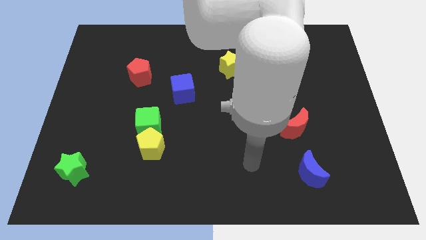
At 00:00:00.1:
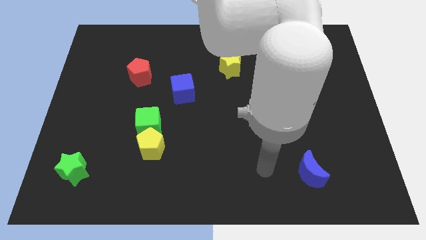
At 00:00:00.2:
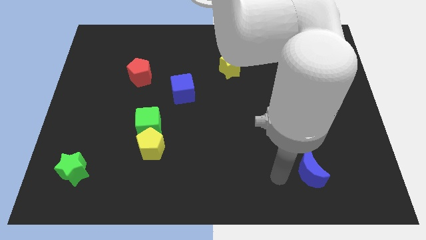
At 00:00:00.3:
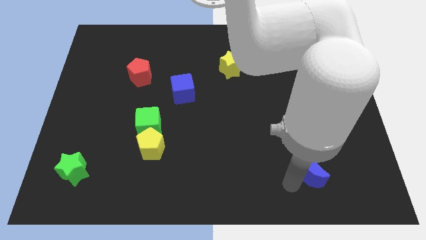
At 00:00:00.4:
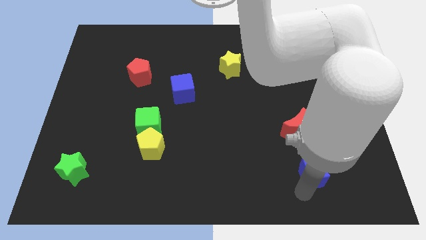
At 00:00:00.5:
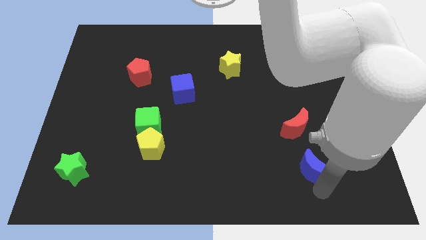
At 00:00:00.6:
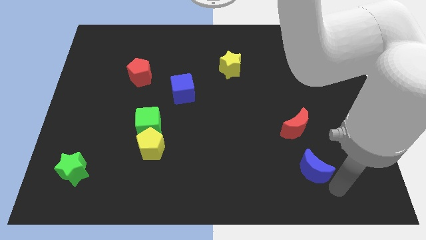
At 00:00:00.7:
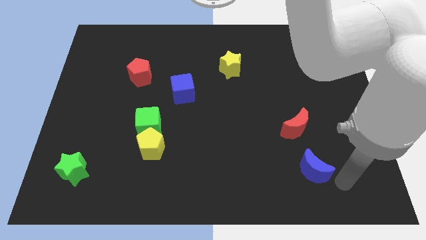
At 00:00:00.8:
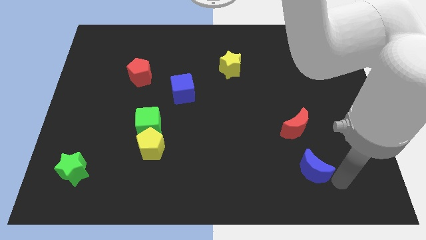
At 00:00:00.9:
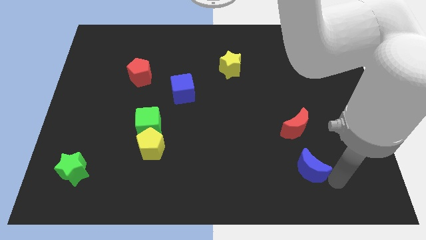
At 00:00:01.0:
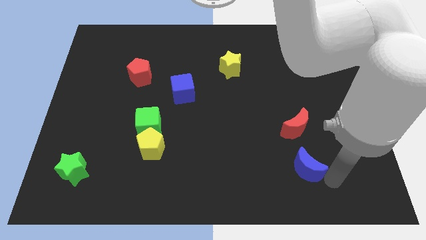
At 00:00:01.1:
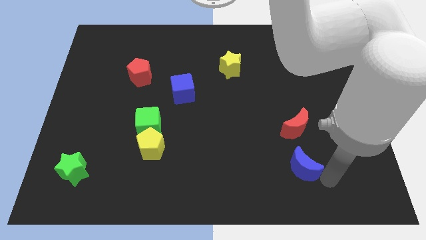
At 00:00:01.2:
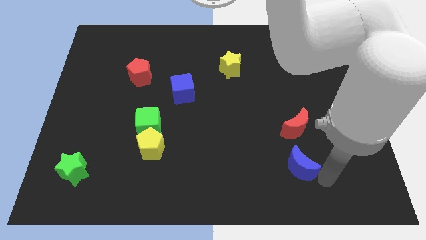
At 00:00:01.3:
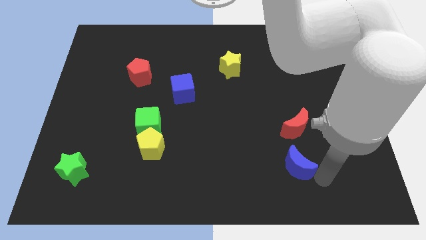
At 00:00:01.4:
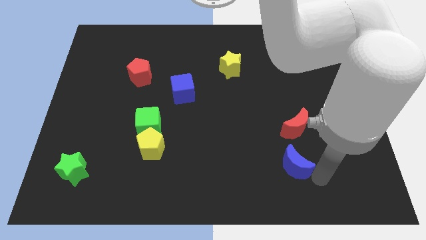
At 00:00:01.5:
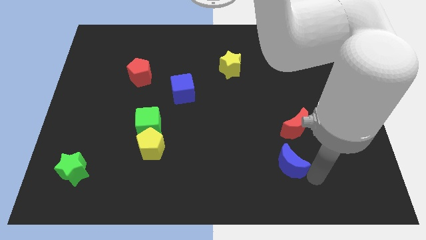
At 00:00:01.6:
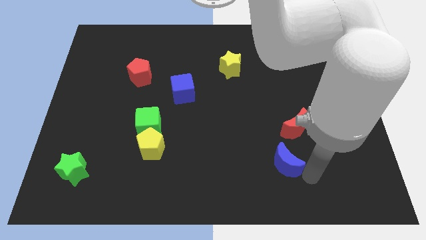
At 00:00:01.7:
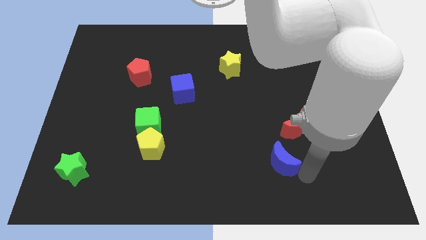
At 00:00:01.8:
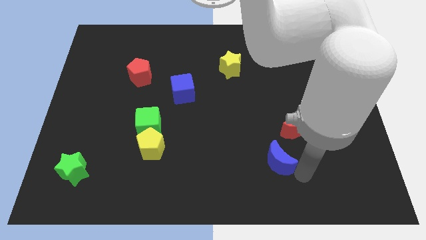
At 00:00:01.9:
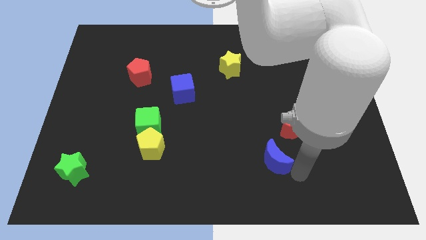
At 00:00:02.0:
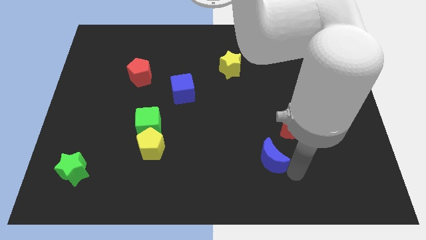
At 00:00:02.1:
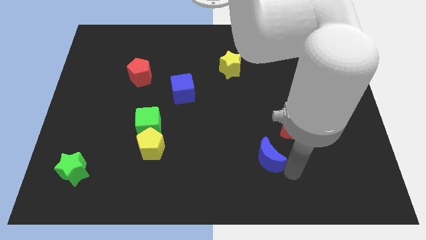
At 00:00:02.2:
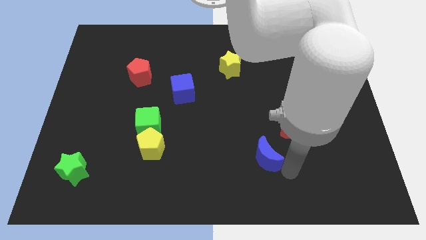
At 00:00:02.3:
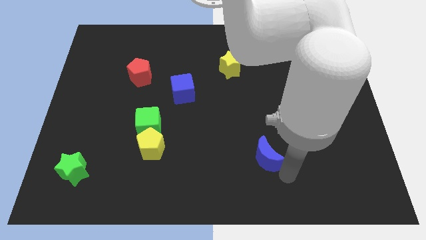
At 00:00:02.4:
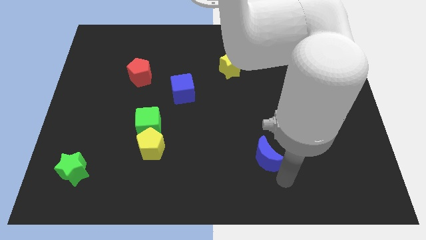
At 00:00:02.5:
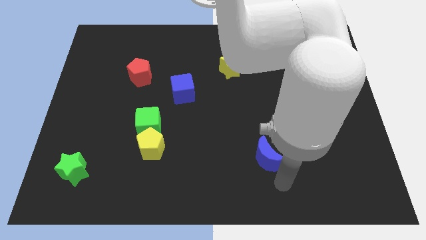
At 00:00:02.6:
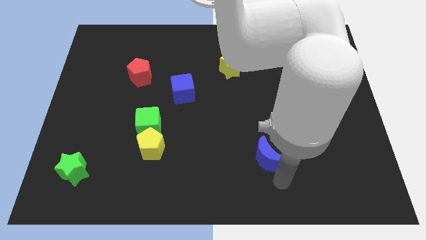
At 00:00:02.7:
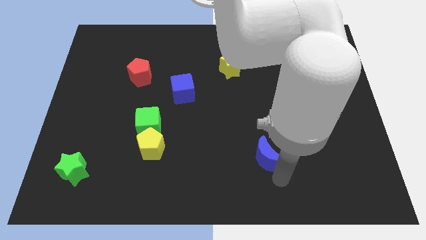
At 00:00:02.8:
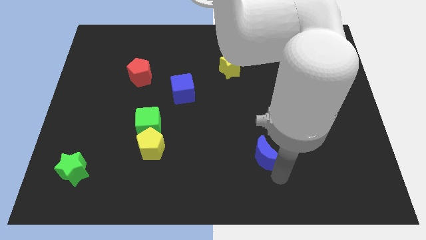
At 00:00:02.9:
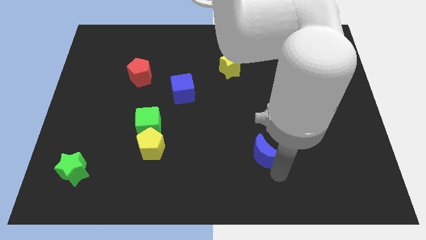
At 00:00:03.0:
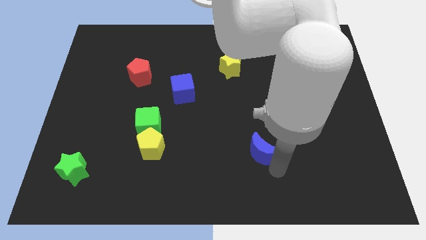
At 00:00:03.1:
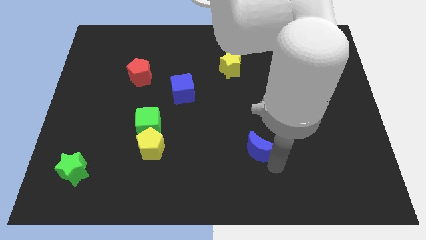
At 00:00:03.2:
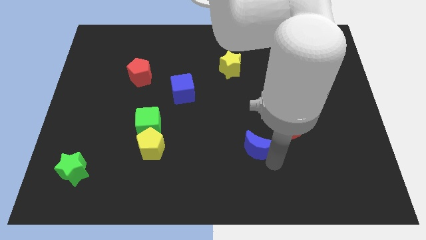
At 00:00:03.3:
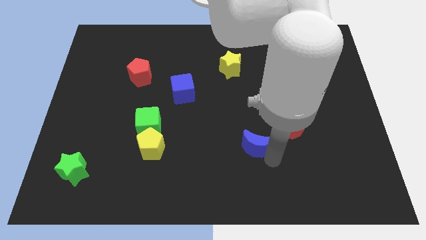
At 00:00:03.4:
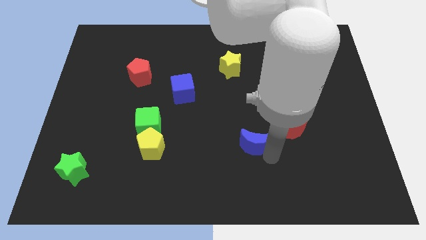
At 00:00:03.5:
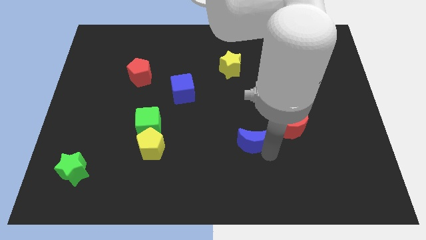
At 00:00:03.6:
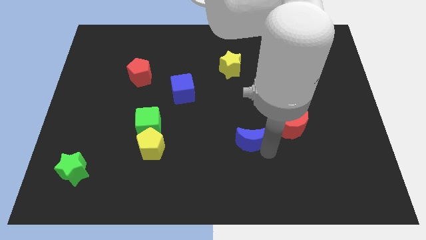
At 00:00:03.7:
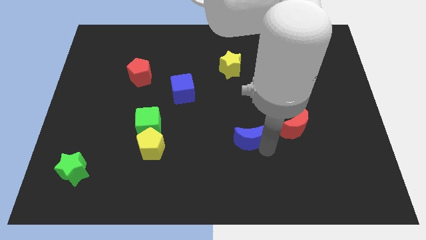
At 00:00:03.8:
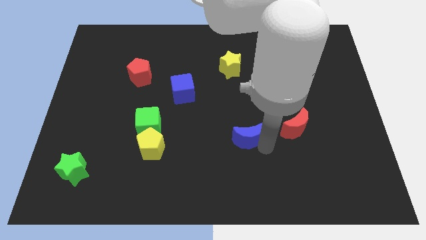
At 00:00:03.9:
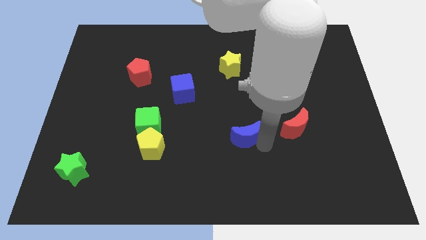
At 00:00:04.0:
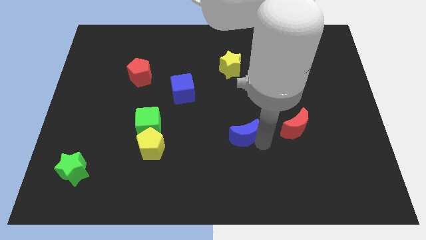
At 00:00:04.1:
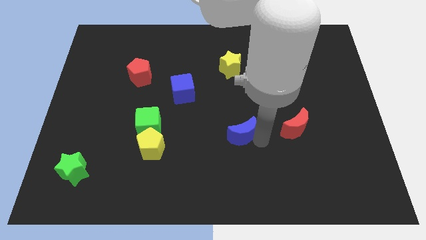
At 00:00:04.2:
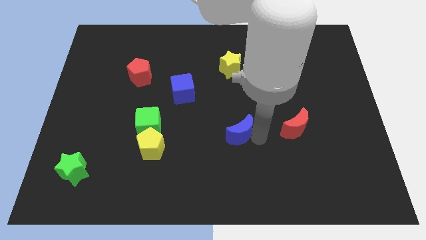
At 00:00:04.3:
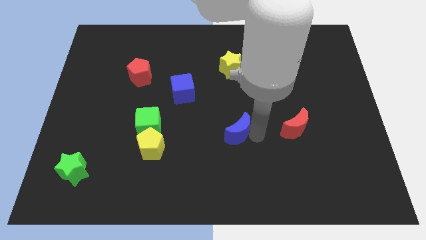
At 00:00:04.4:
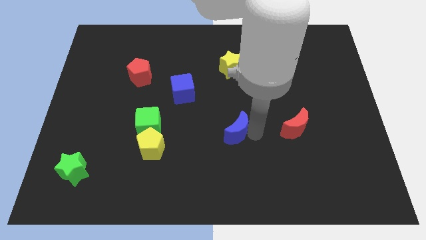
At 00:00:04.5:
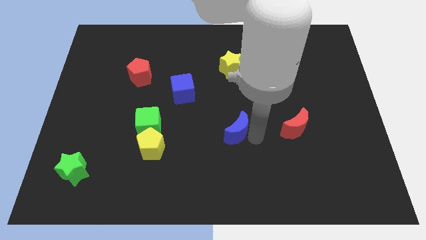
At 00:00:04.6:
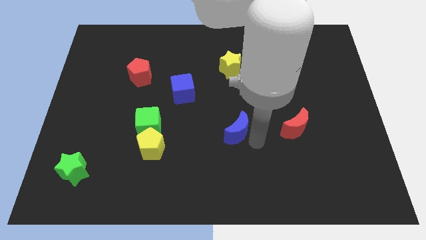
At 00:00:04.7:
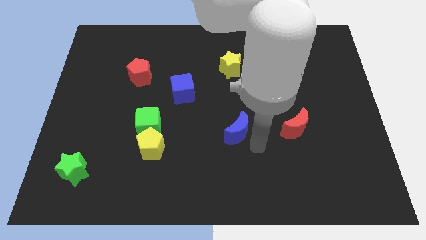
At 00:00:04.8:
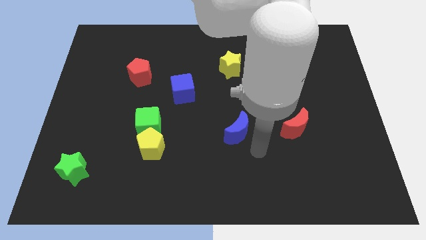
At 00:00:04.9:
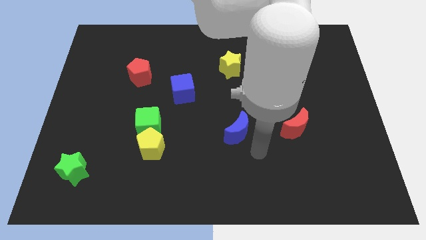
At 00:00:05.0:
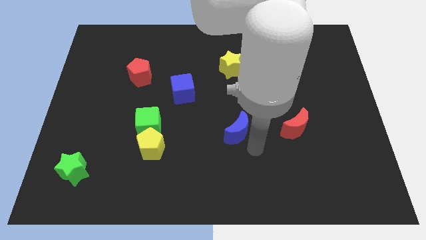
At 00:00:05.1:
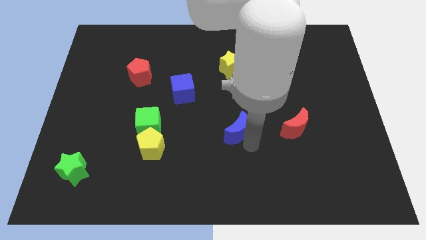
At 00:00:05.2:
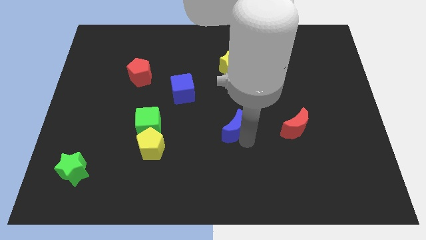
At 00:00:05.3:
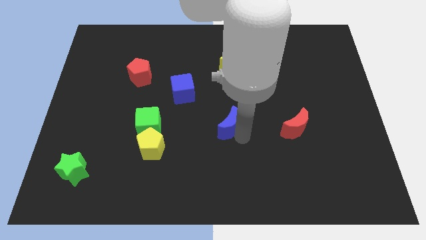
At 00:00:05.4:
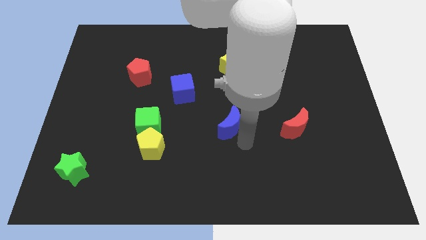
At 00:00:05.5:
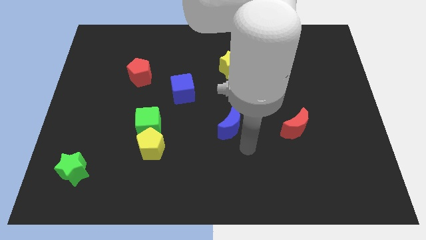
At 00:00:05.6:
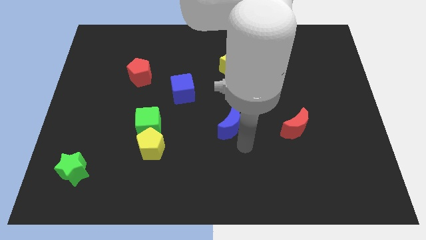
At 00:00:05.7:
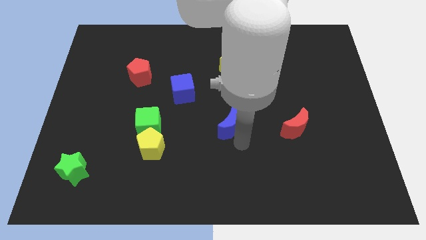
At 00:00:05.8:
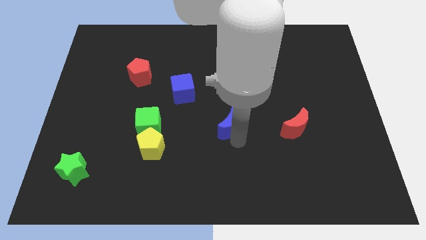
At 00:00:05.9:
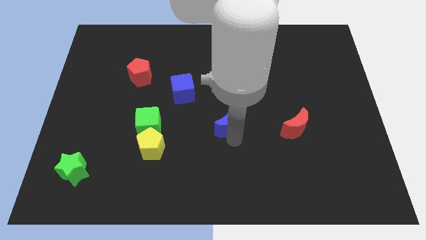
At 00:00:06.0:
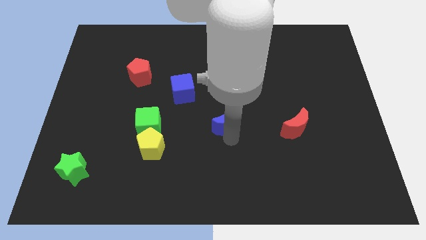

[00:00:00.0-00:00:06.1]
move the blue moon upwards and then to the left

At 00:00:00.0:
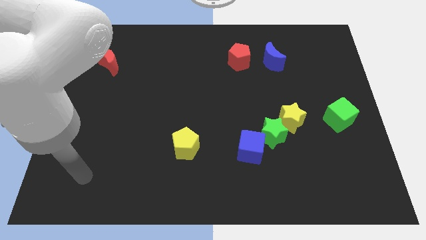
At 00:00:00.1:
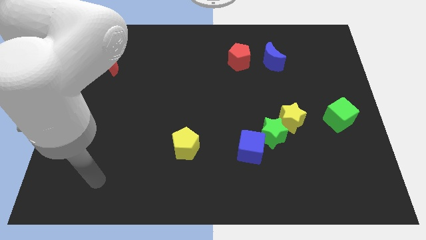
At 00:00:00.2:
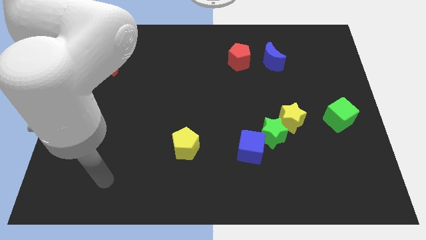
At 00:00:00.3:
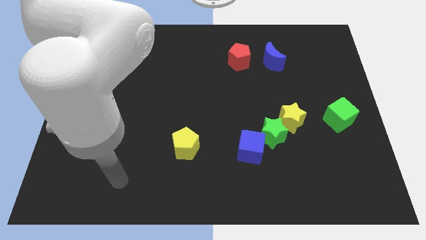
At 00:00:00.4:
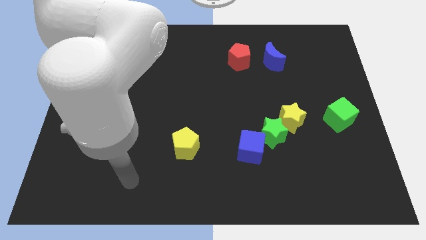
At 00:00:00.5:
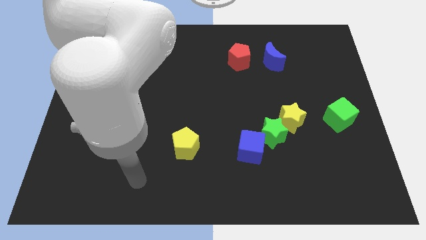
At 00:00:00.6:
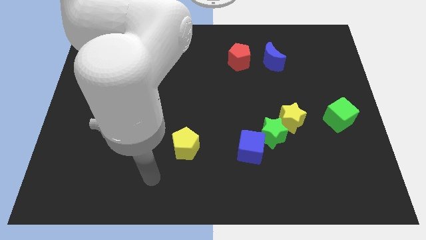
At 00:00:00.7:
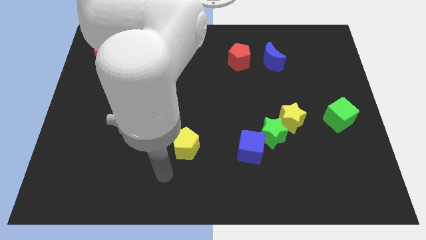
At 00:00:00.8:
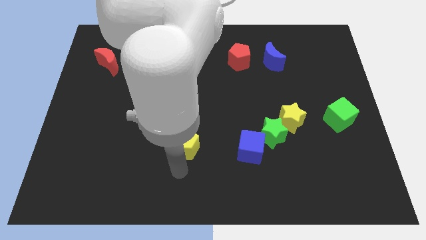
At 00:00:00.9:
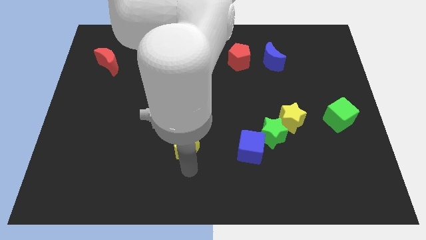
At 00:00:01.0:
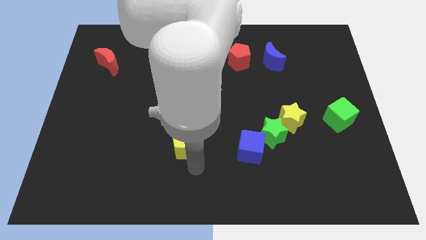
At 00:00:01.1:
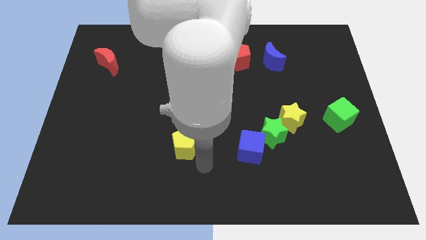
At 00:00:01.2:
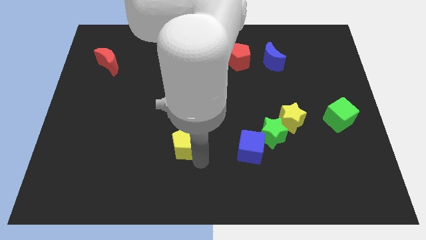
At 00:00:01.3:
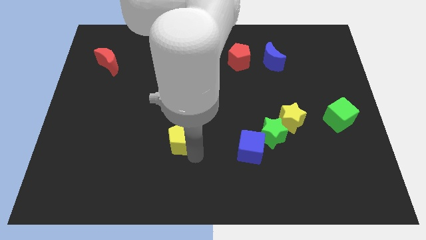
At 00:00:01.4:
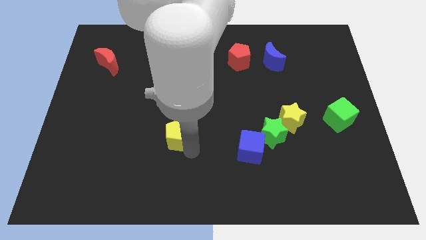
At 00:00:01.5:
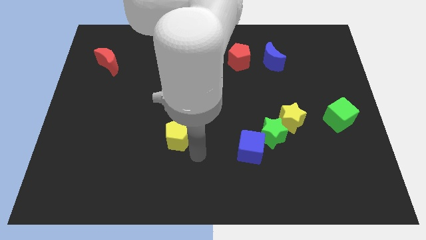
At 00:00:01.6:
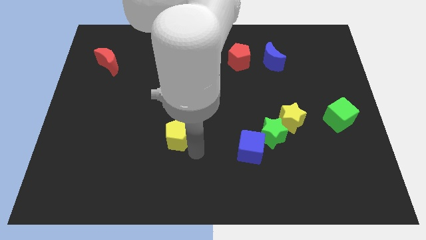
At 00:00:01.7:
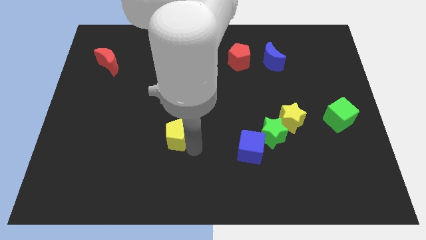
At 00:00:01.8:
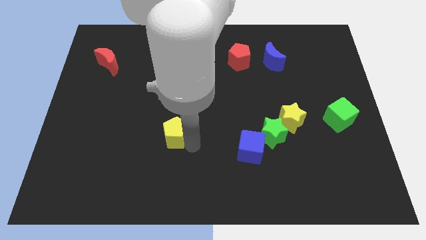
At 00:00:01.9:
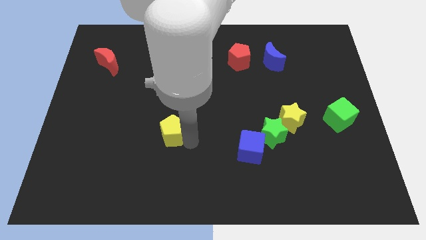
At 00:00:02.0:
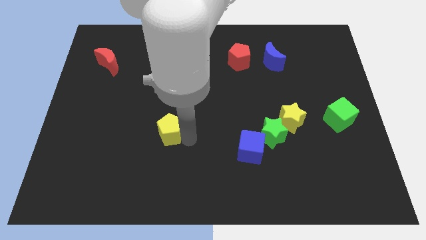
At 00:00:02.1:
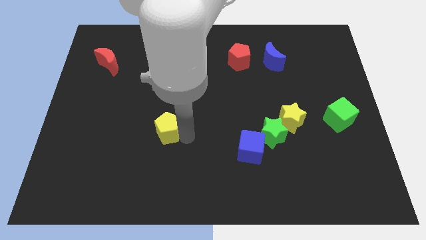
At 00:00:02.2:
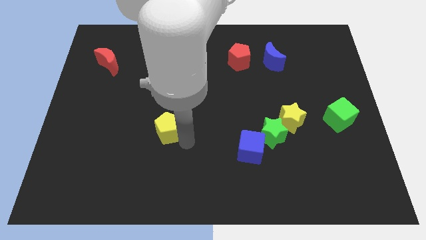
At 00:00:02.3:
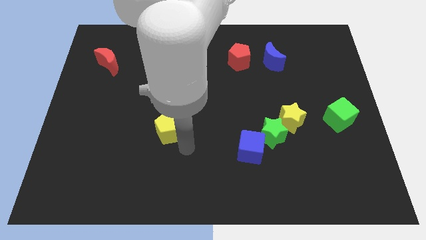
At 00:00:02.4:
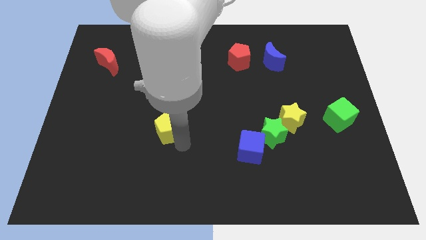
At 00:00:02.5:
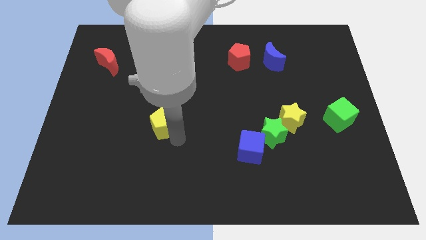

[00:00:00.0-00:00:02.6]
slide the yellow pentagon slightly up and then left
